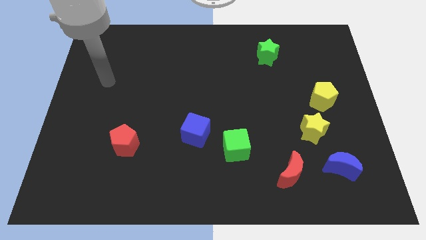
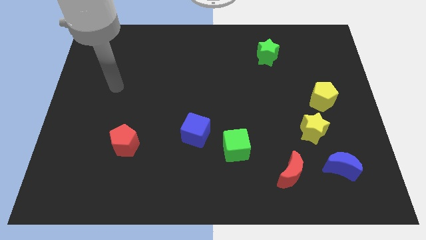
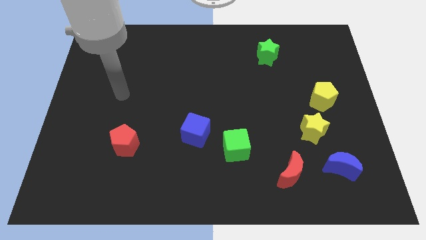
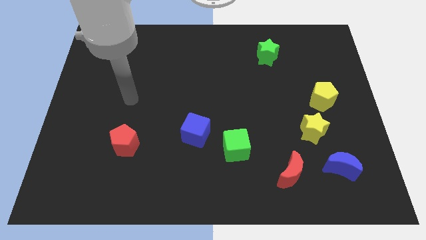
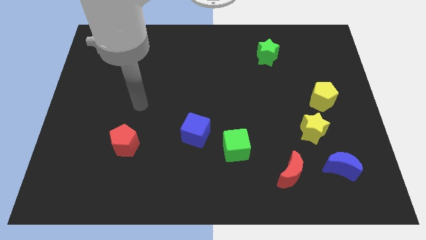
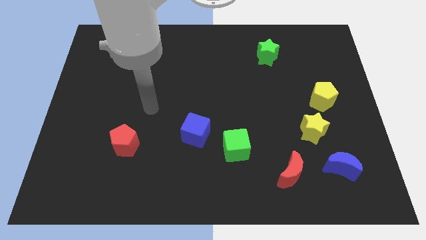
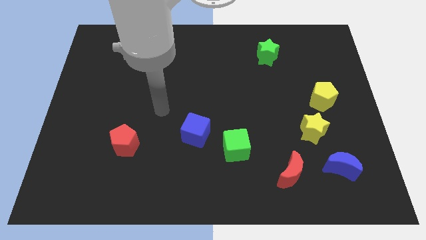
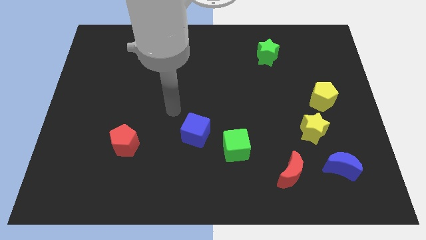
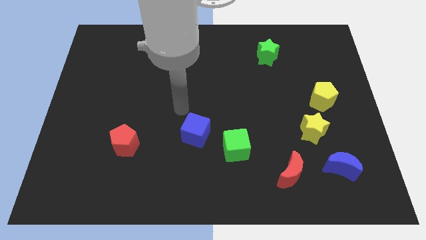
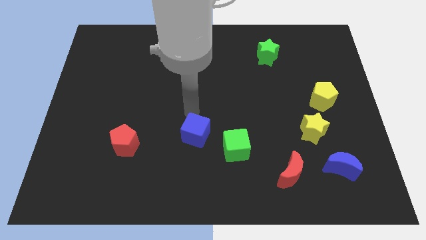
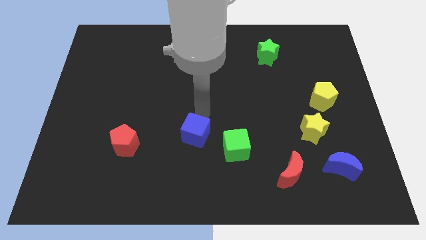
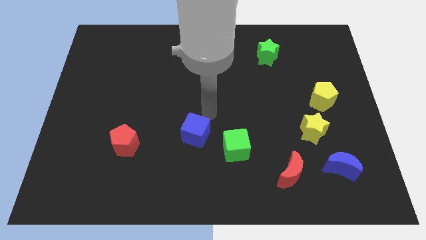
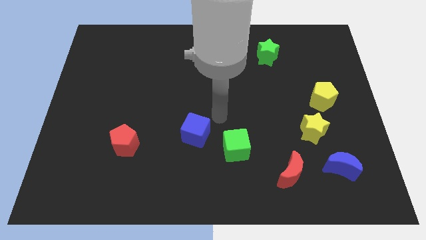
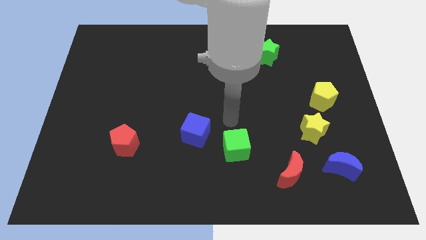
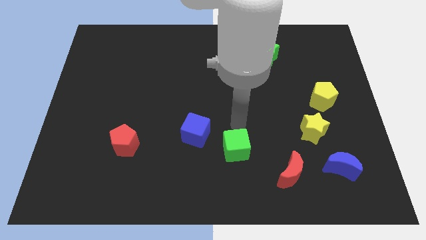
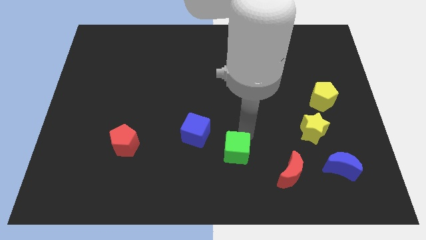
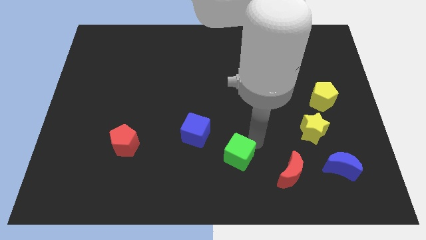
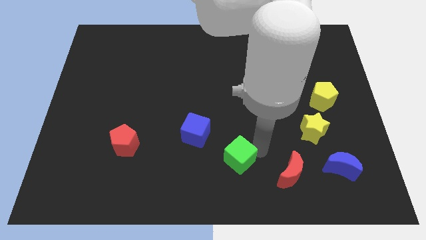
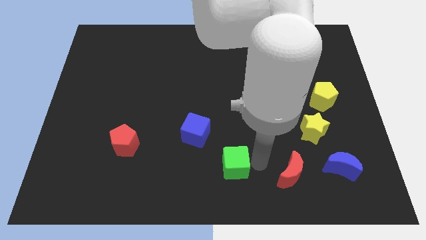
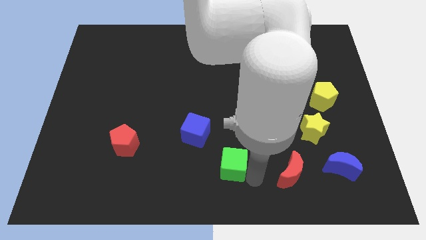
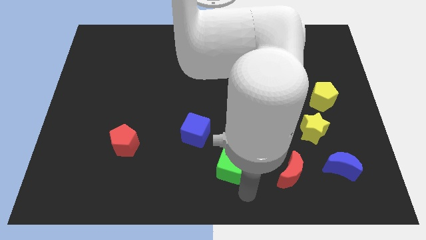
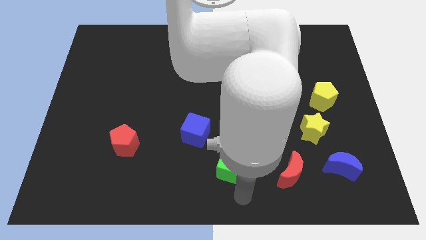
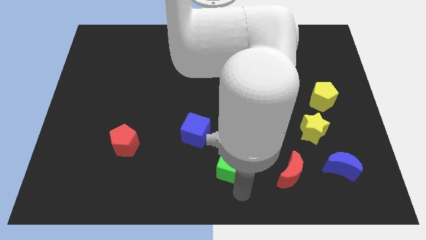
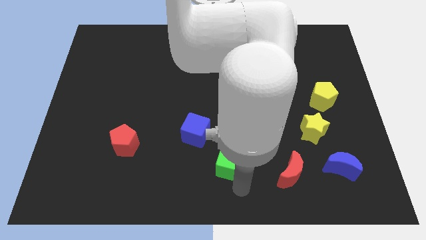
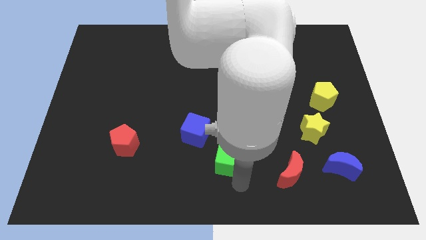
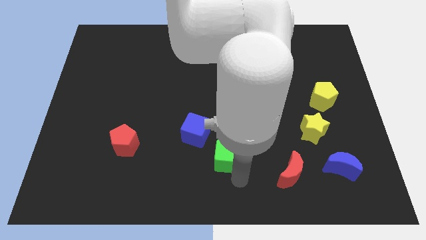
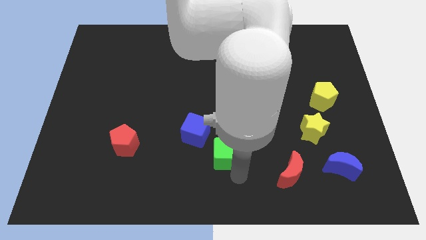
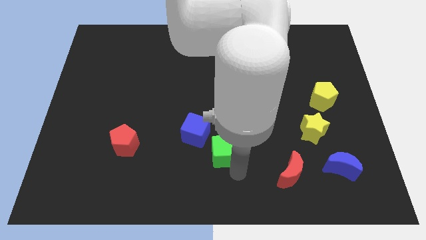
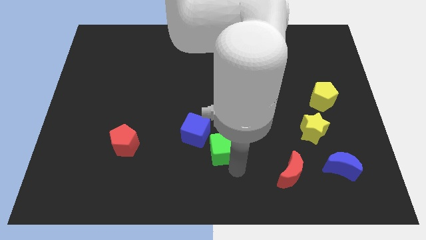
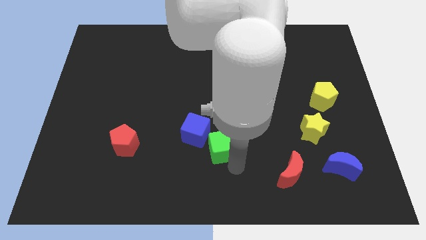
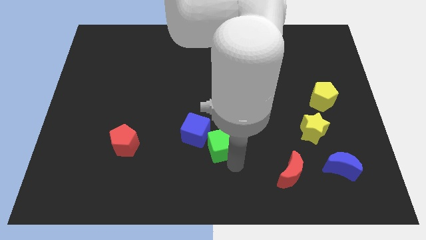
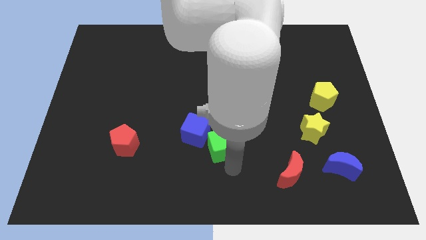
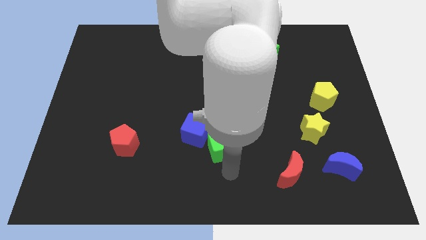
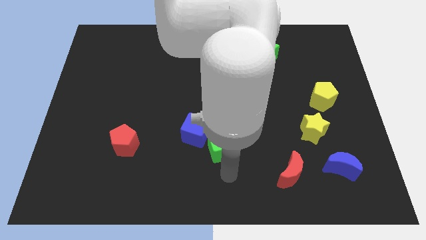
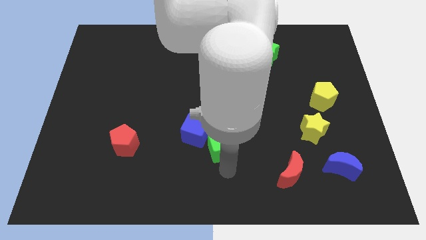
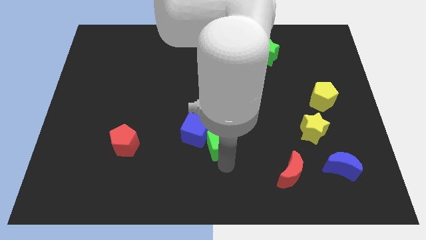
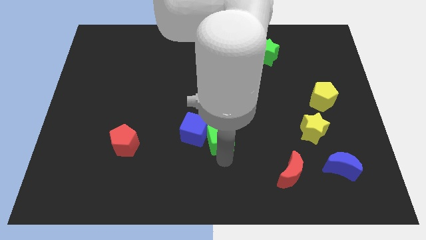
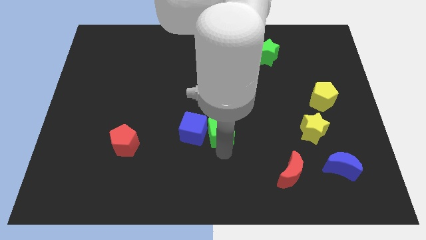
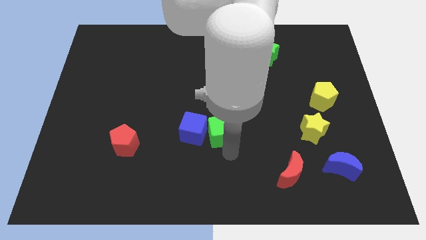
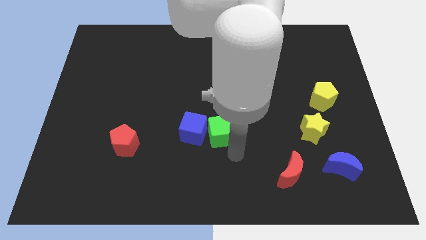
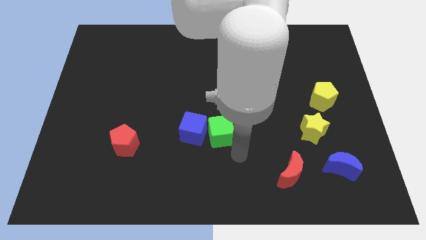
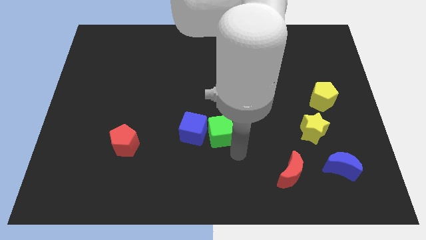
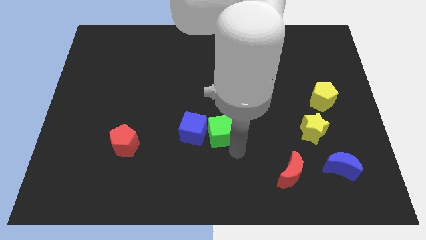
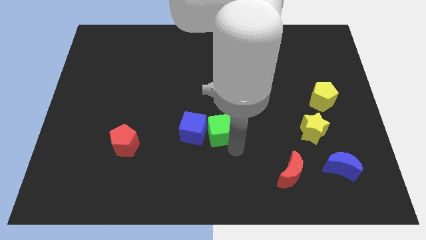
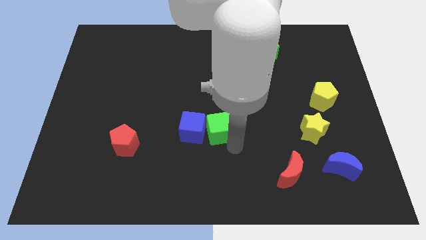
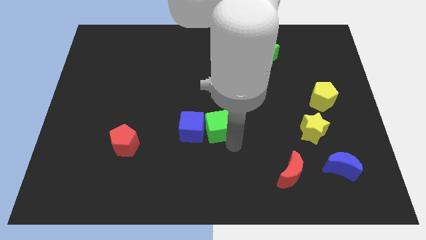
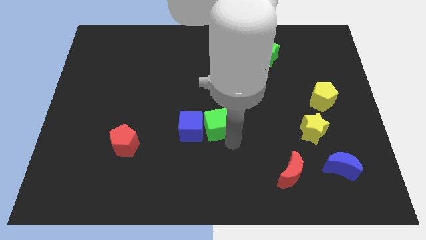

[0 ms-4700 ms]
slide the green cube a bit diagonally up and to the left

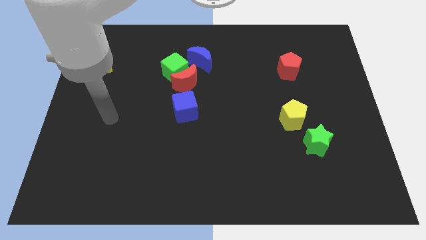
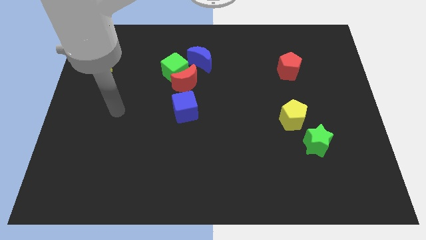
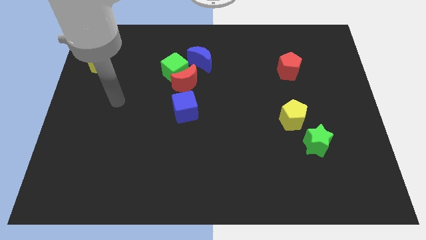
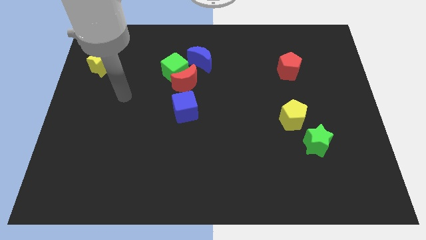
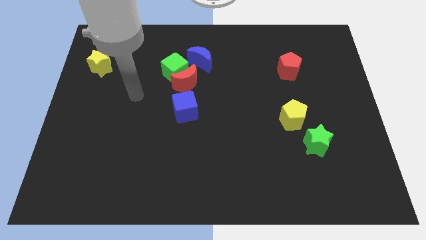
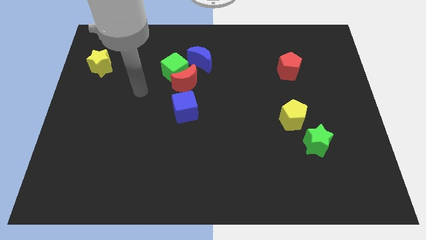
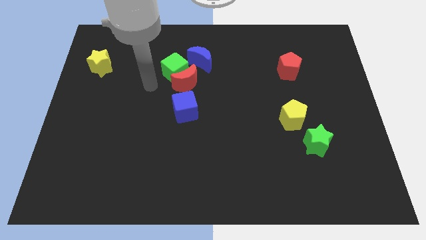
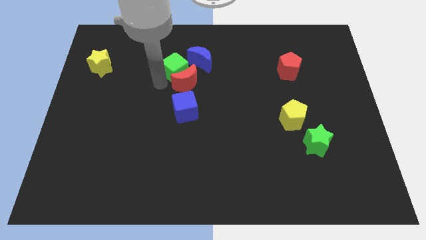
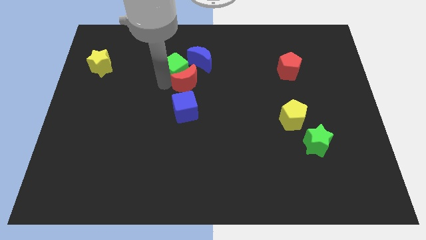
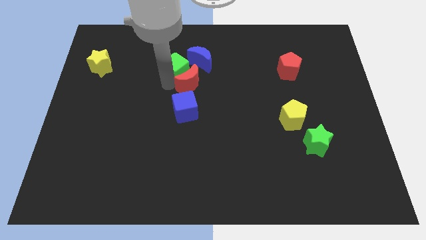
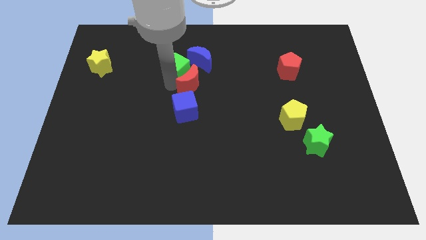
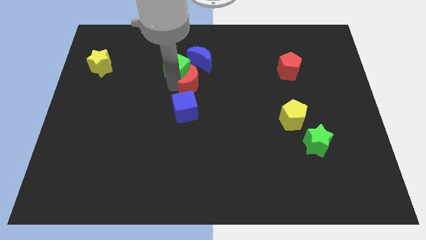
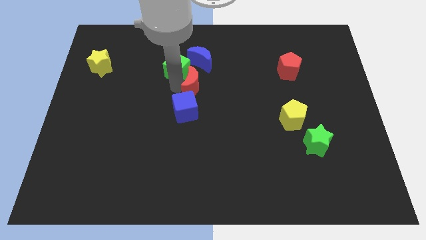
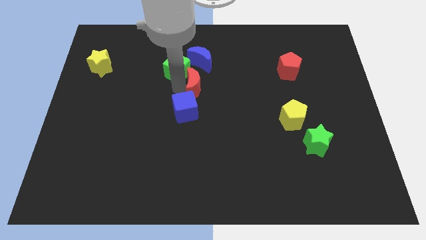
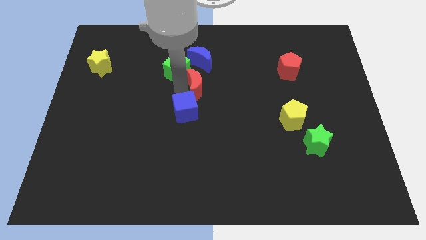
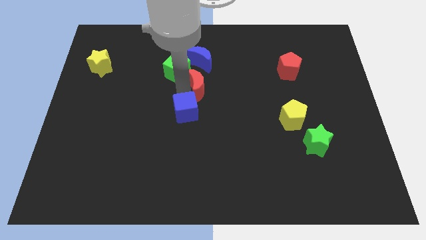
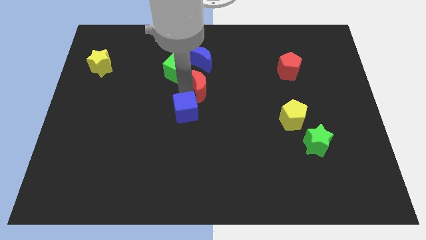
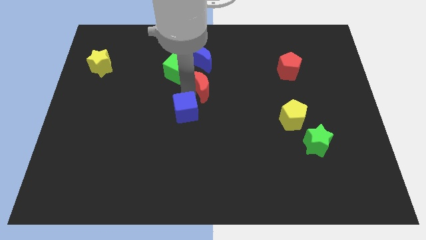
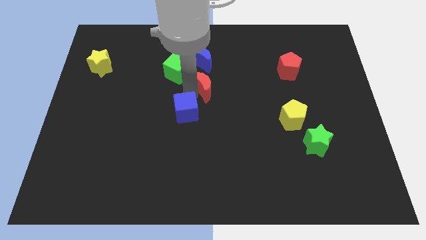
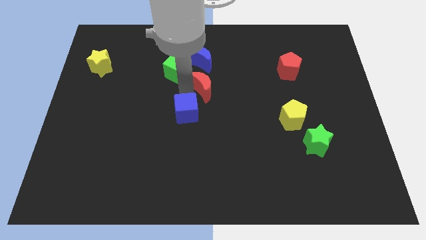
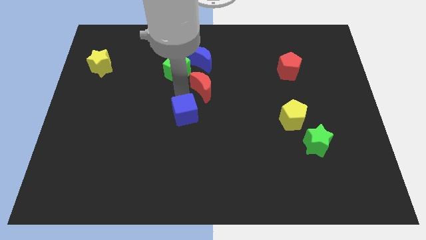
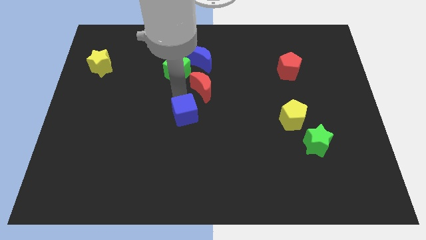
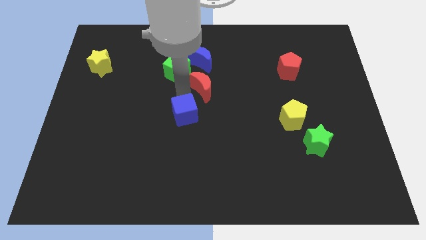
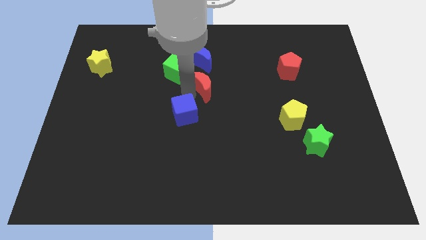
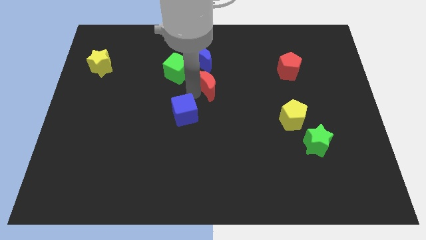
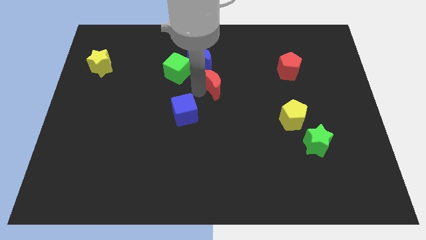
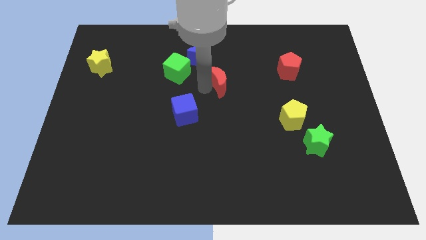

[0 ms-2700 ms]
move the red moon to the right slightly

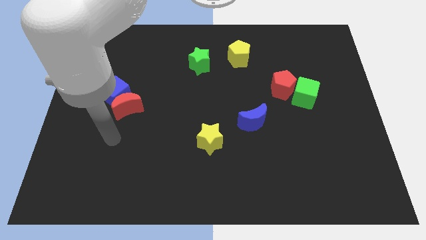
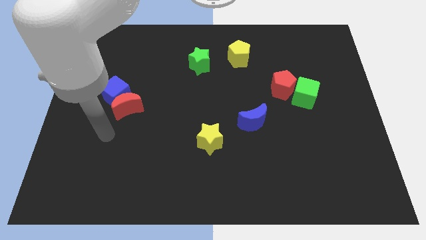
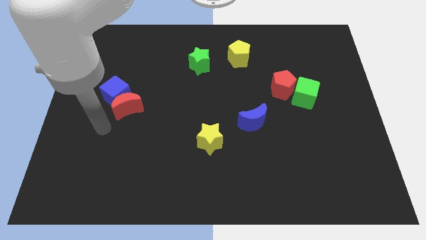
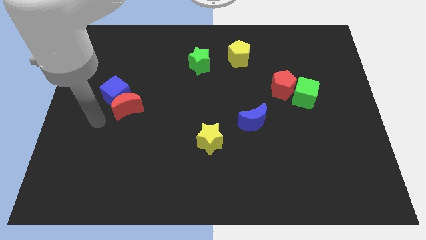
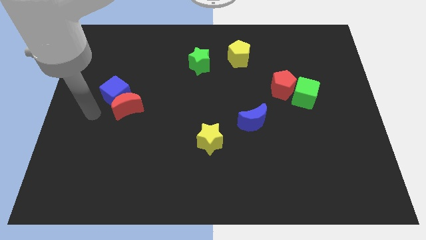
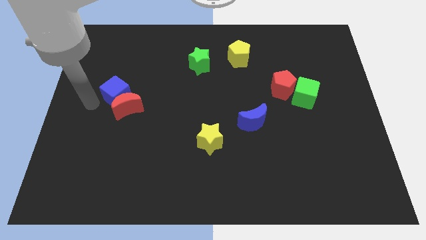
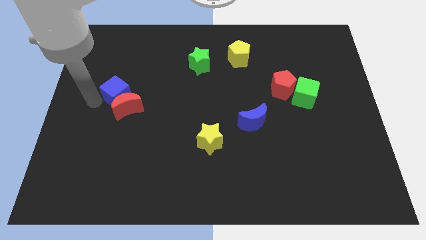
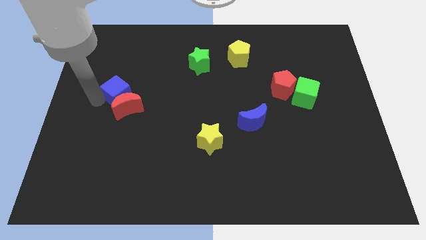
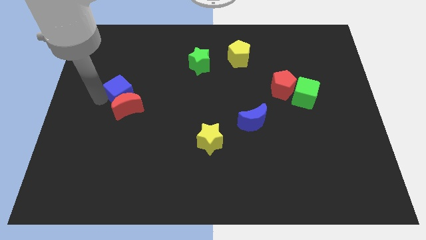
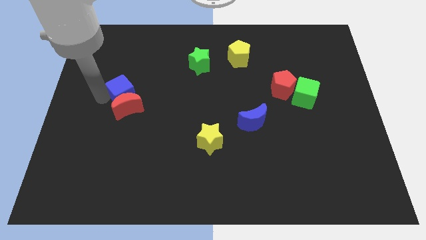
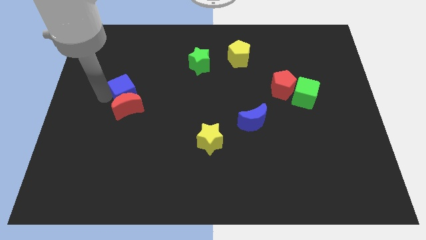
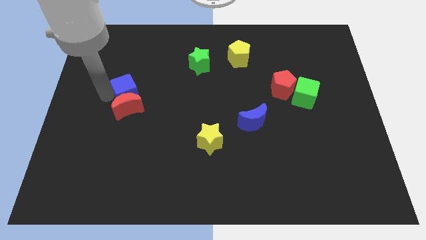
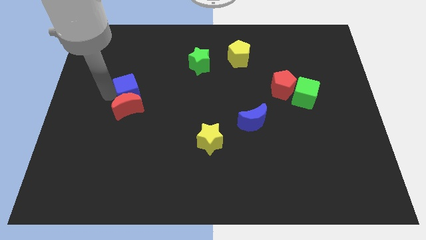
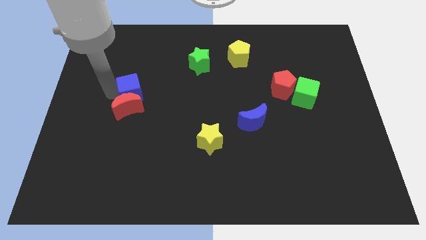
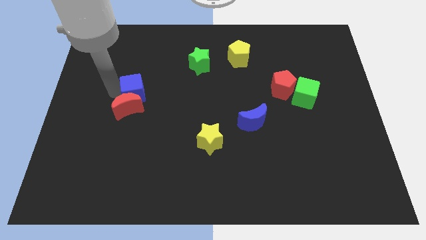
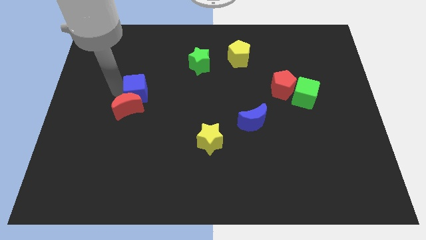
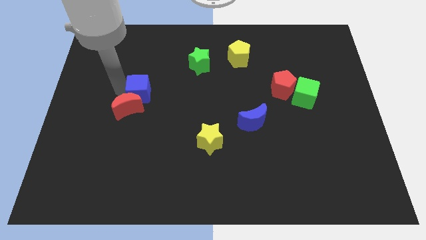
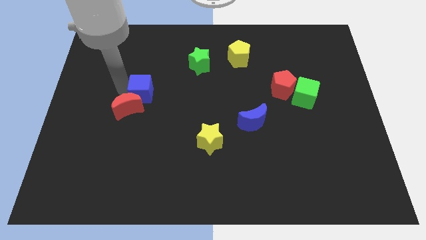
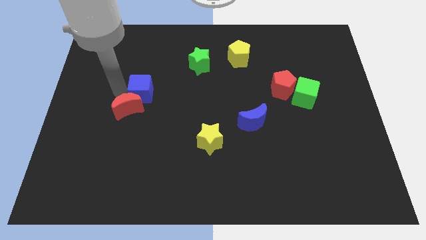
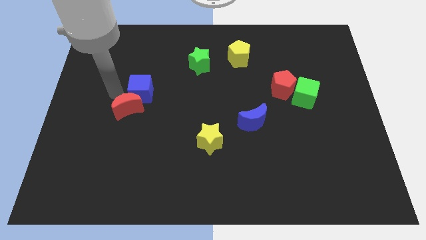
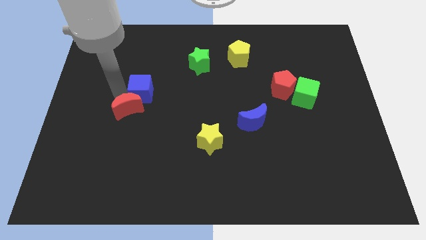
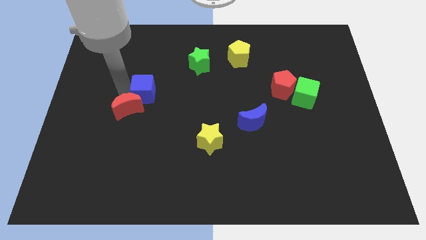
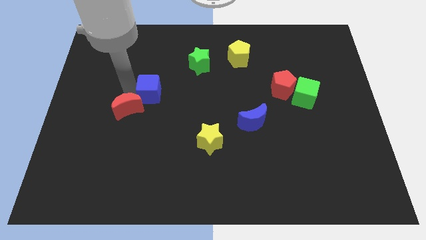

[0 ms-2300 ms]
push the blue cube to the right slightly
